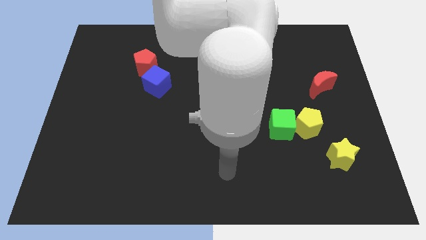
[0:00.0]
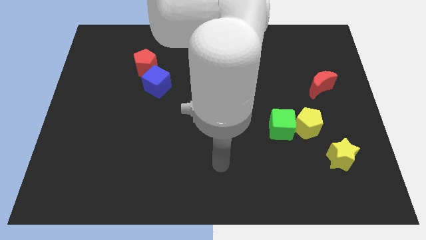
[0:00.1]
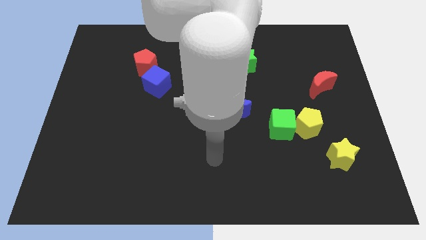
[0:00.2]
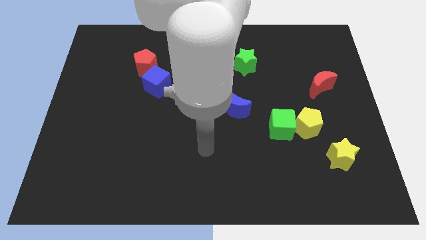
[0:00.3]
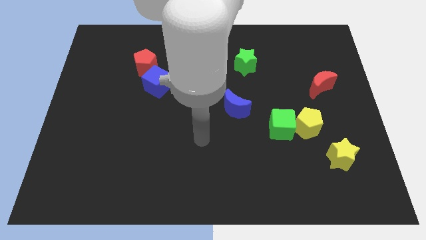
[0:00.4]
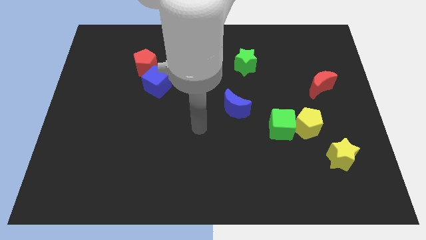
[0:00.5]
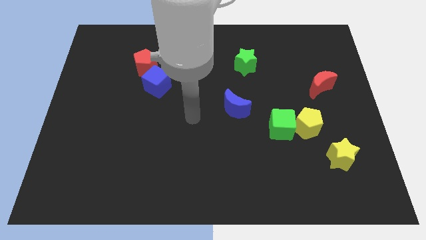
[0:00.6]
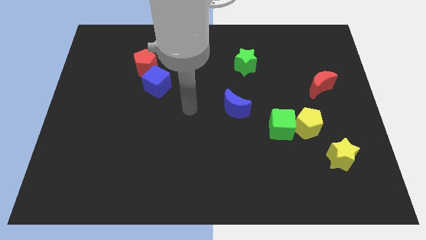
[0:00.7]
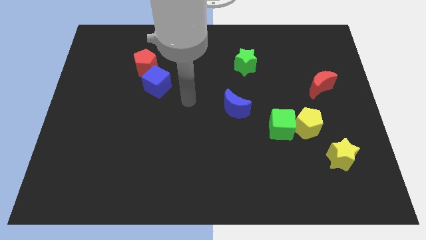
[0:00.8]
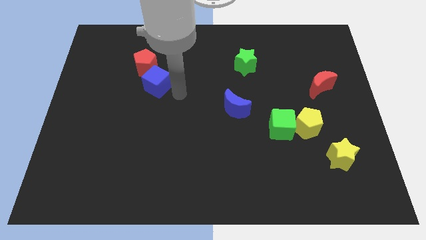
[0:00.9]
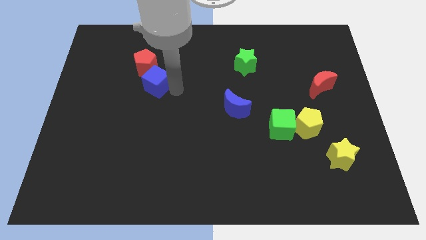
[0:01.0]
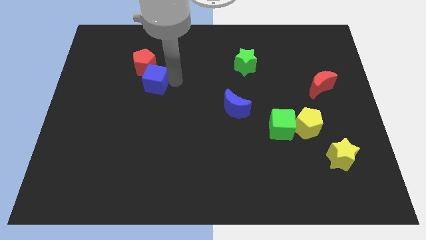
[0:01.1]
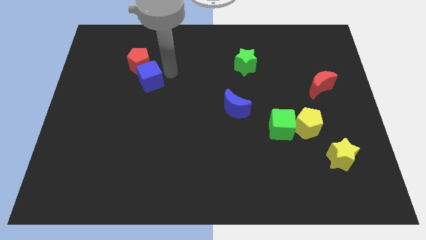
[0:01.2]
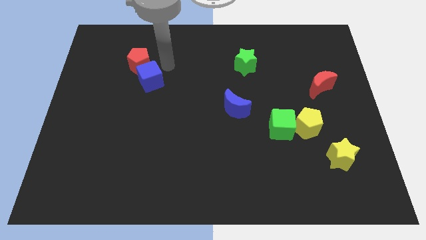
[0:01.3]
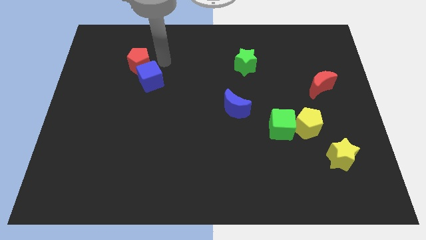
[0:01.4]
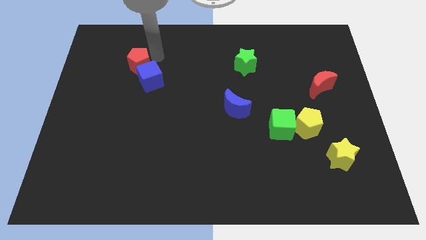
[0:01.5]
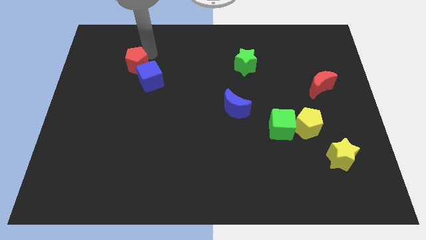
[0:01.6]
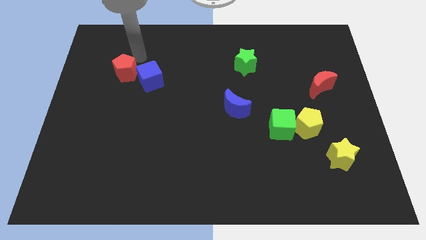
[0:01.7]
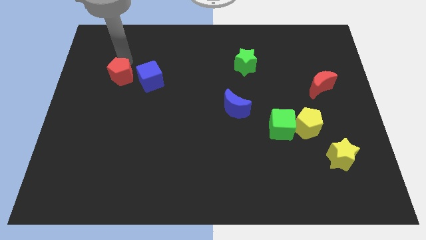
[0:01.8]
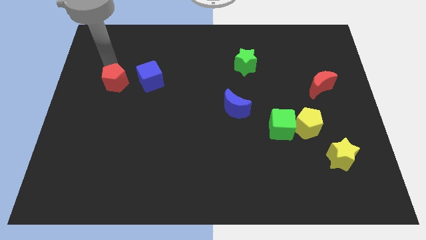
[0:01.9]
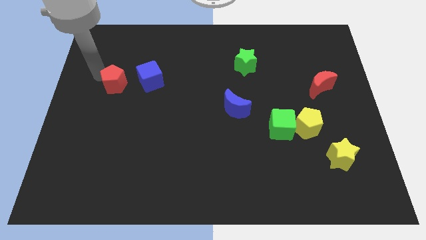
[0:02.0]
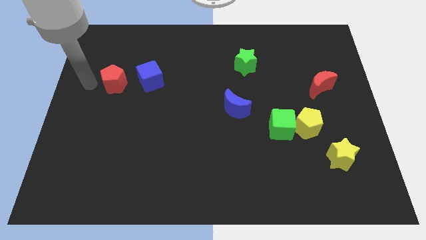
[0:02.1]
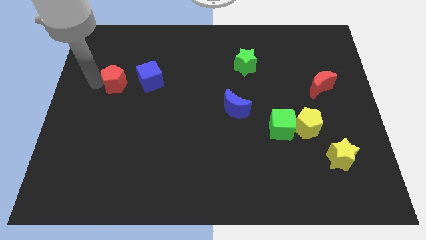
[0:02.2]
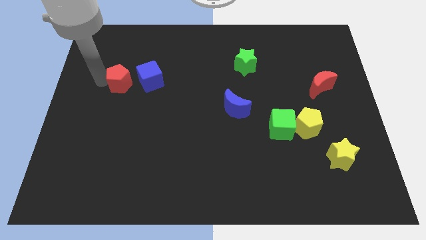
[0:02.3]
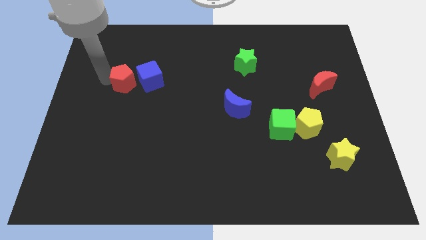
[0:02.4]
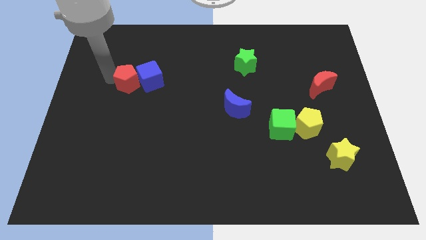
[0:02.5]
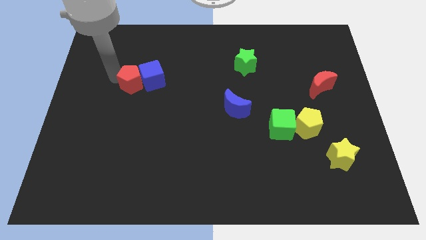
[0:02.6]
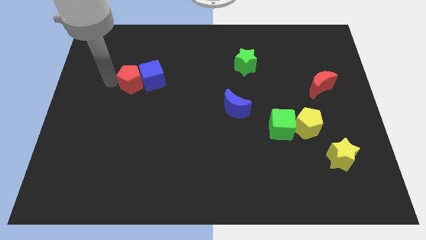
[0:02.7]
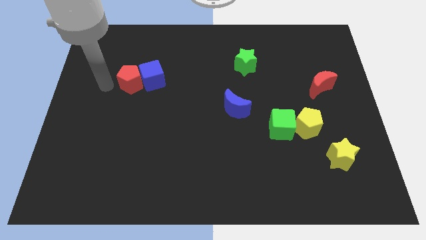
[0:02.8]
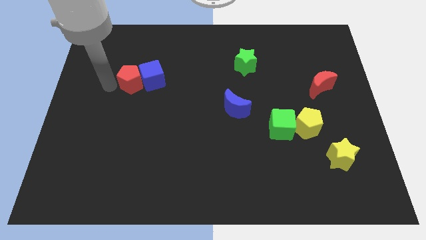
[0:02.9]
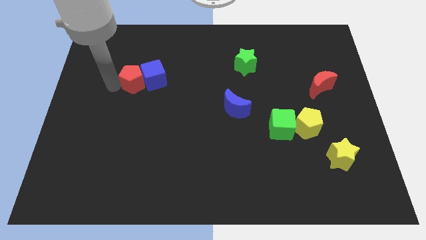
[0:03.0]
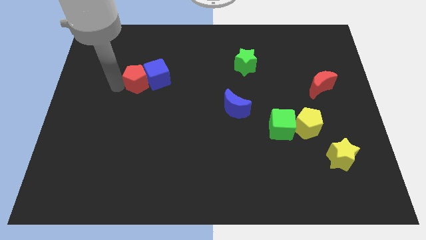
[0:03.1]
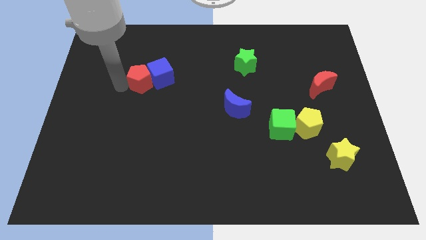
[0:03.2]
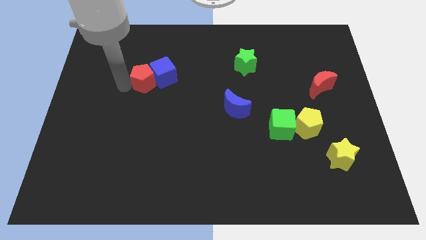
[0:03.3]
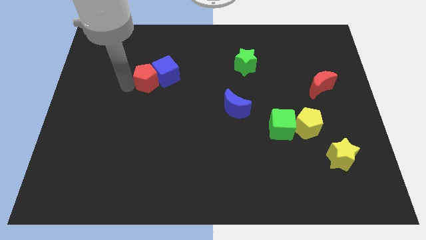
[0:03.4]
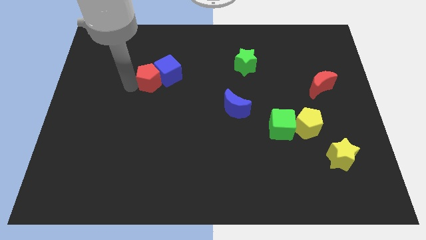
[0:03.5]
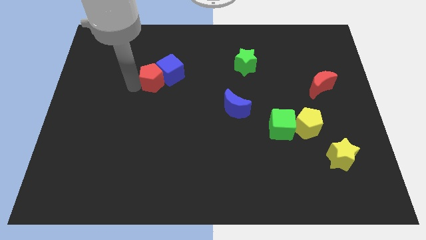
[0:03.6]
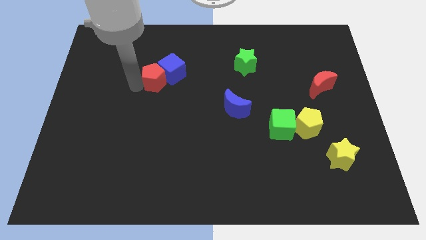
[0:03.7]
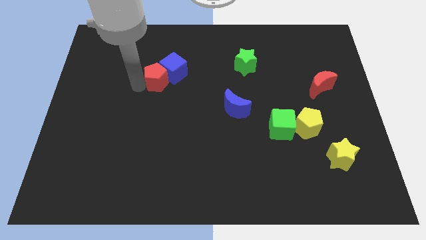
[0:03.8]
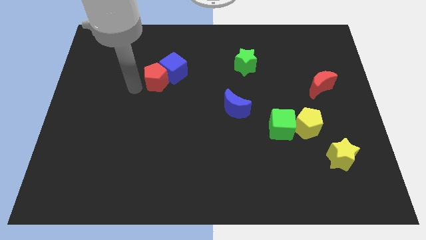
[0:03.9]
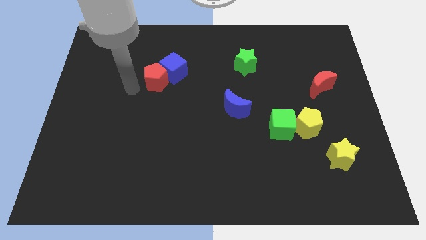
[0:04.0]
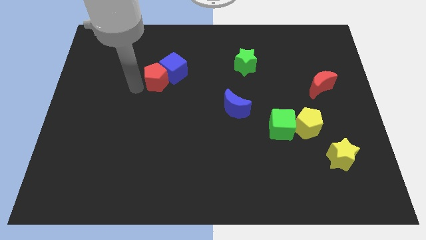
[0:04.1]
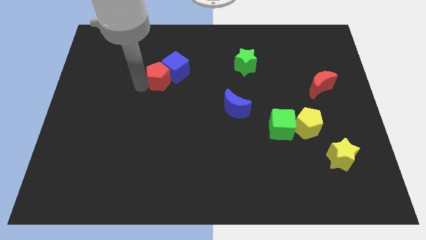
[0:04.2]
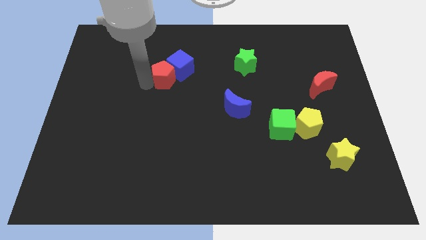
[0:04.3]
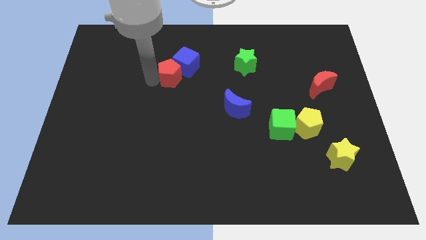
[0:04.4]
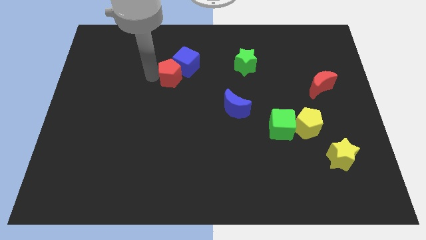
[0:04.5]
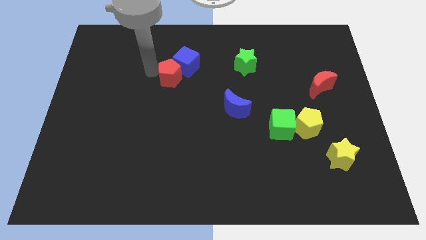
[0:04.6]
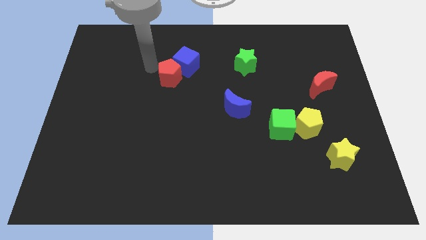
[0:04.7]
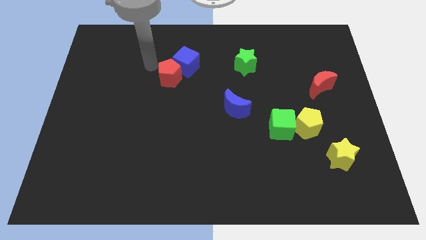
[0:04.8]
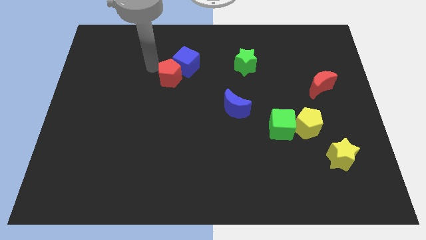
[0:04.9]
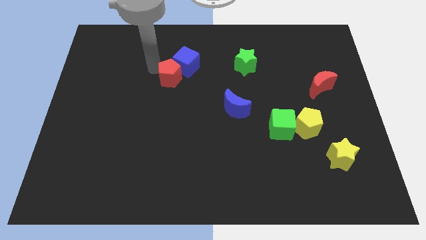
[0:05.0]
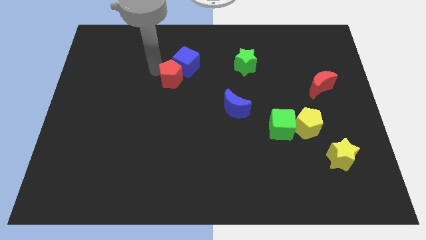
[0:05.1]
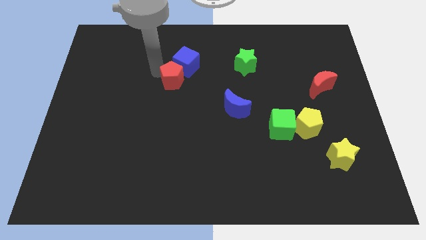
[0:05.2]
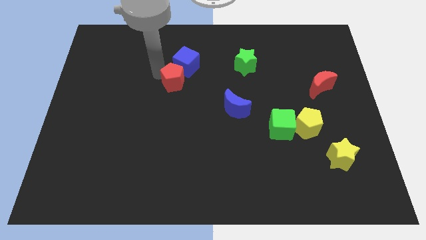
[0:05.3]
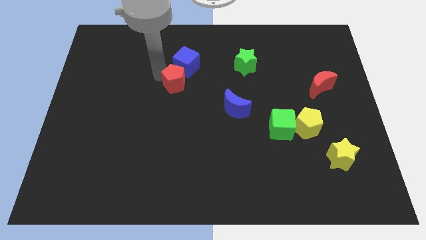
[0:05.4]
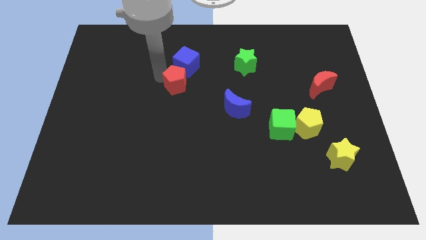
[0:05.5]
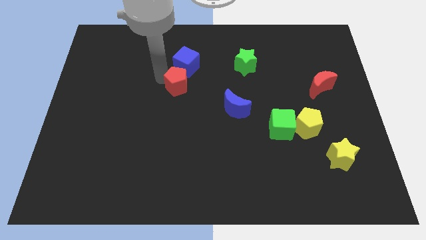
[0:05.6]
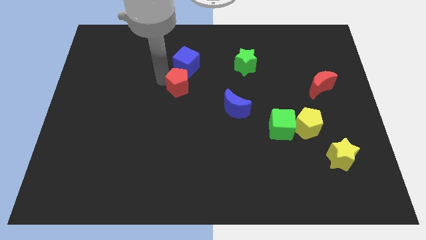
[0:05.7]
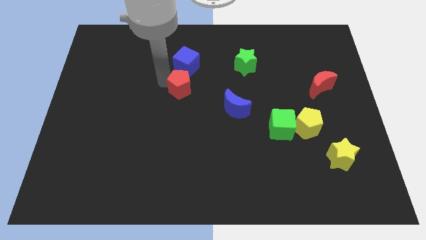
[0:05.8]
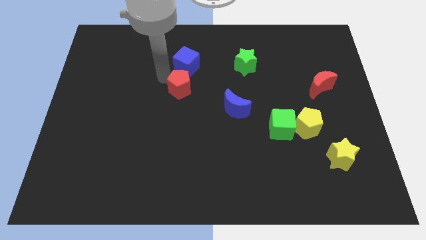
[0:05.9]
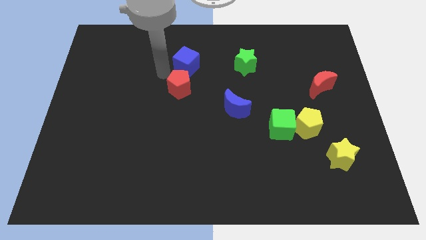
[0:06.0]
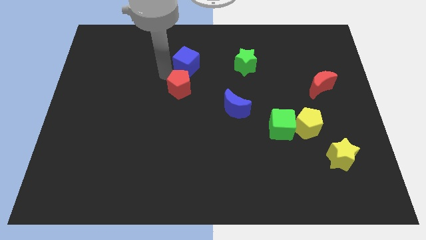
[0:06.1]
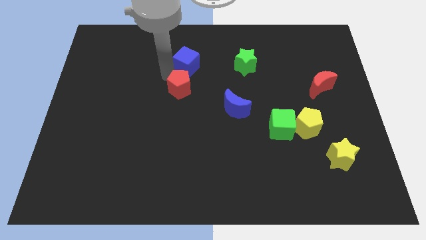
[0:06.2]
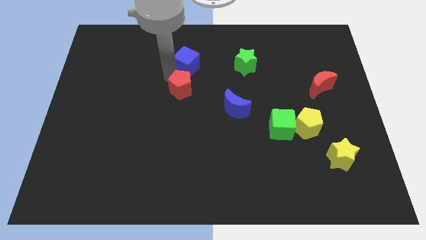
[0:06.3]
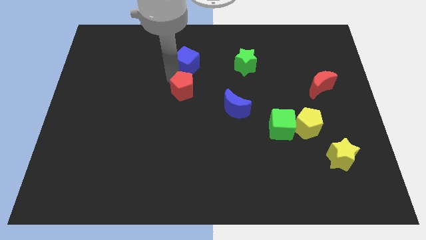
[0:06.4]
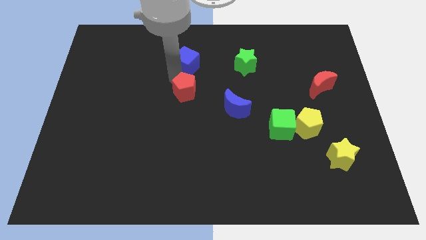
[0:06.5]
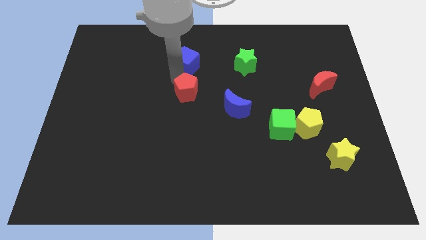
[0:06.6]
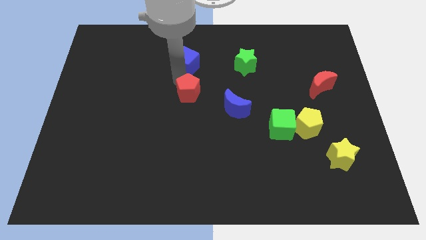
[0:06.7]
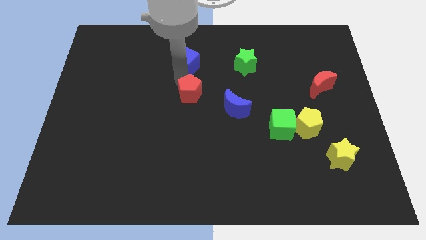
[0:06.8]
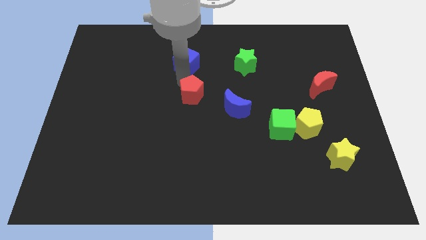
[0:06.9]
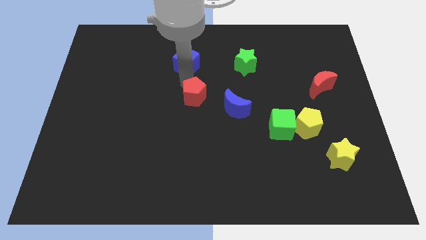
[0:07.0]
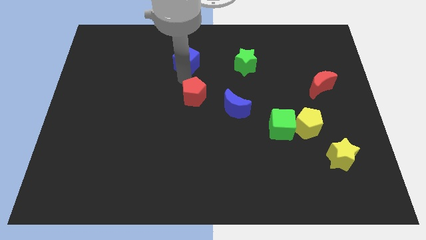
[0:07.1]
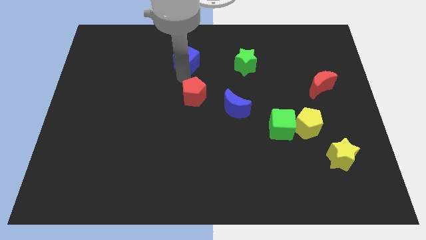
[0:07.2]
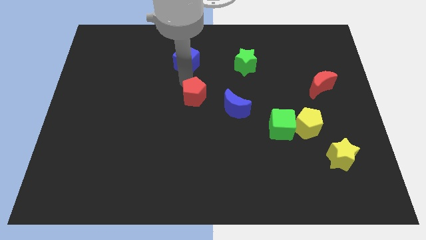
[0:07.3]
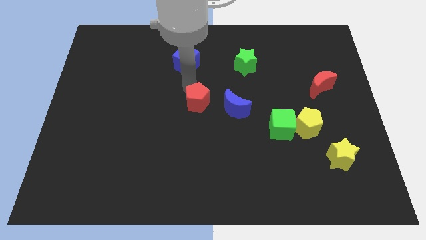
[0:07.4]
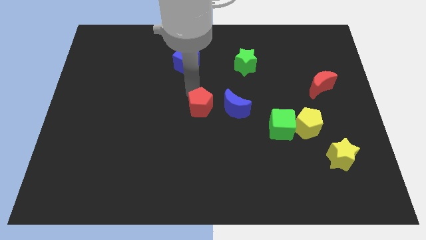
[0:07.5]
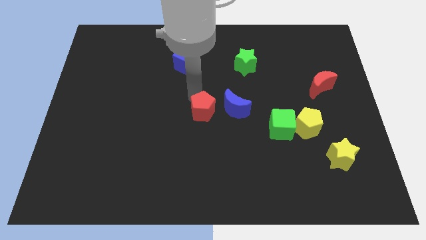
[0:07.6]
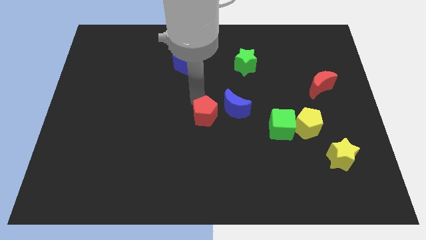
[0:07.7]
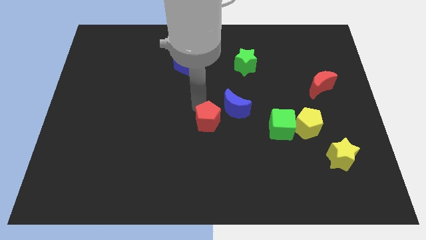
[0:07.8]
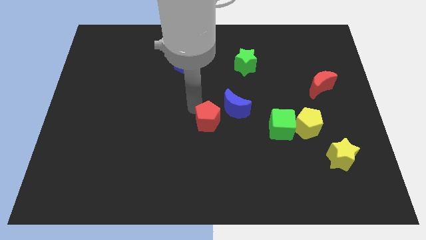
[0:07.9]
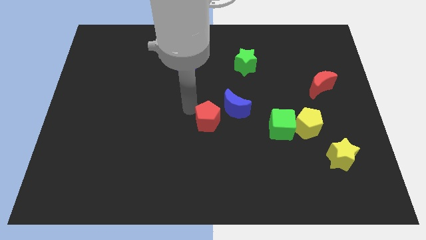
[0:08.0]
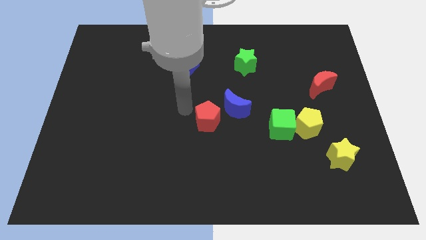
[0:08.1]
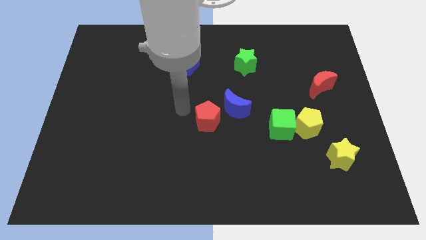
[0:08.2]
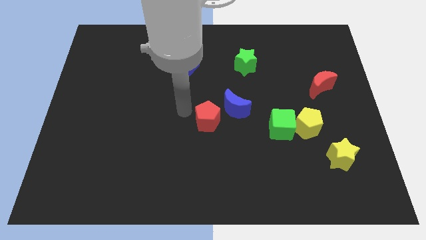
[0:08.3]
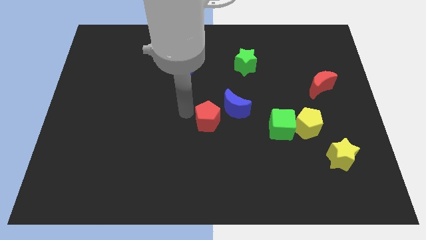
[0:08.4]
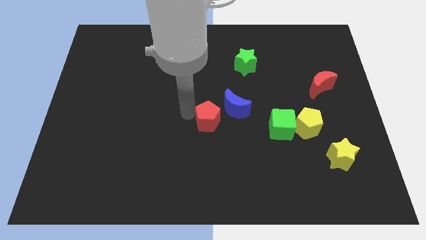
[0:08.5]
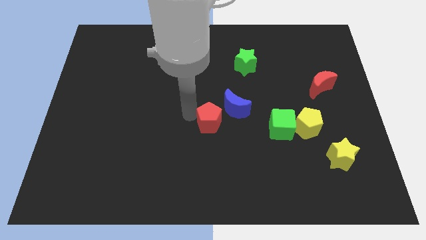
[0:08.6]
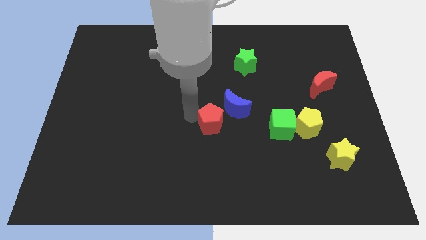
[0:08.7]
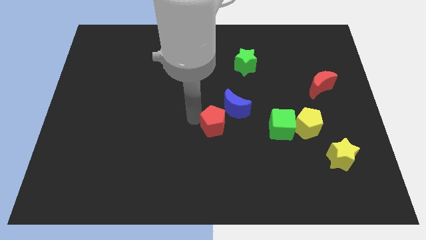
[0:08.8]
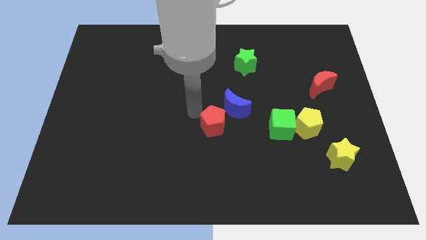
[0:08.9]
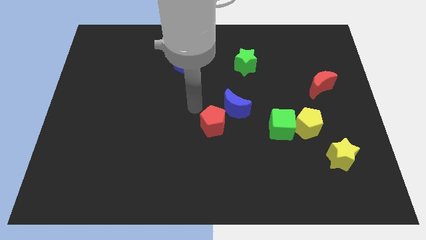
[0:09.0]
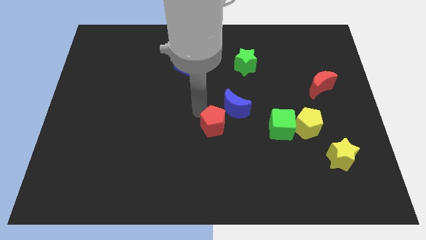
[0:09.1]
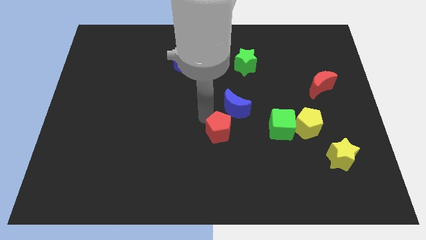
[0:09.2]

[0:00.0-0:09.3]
put the red pentagon to the bottom of the blue moon
